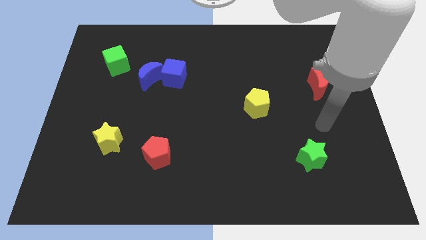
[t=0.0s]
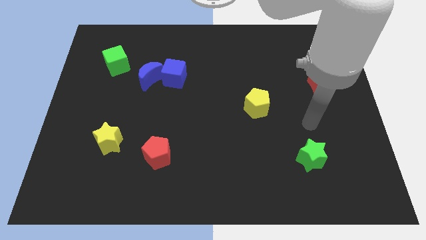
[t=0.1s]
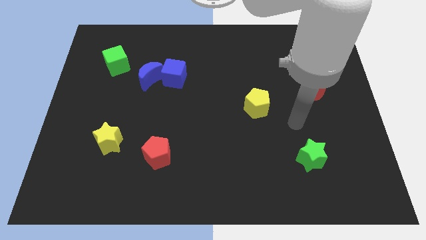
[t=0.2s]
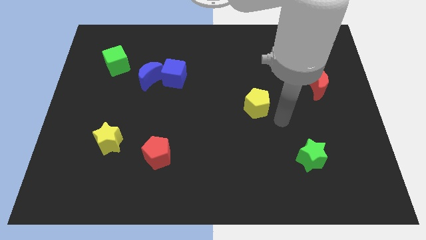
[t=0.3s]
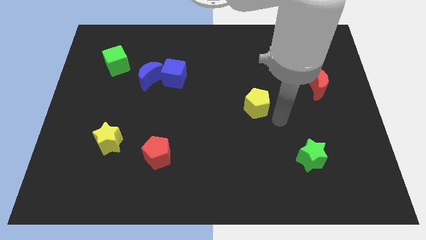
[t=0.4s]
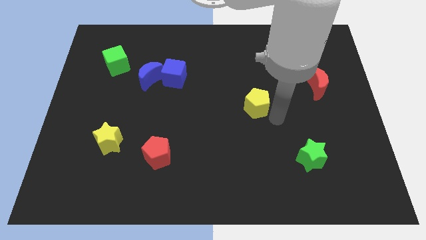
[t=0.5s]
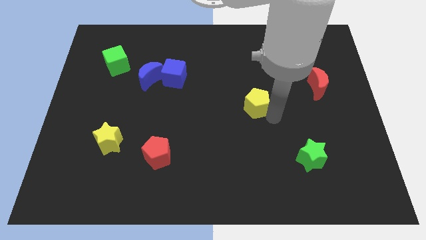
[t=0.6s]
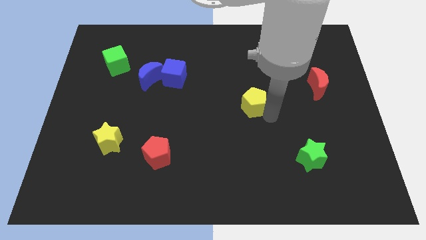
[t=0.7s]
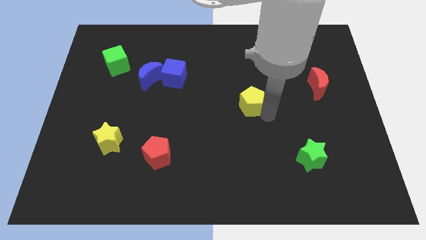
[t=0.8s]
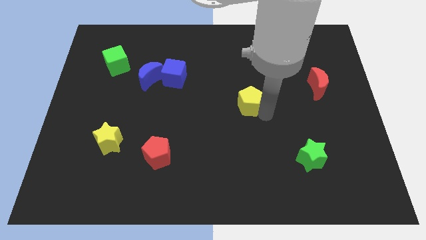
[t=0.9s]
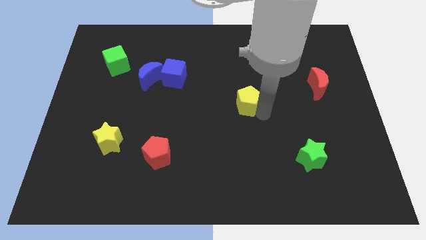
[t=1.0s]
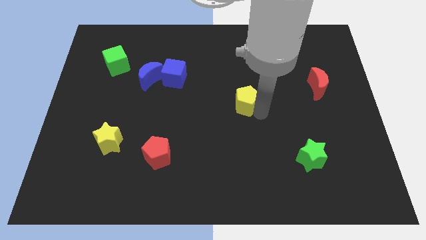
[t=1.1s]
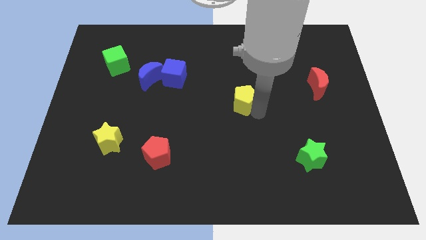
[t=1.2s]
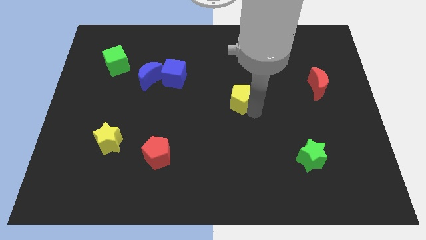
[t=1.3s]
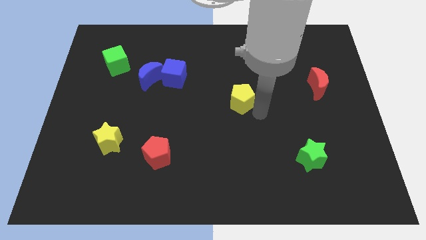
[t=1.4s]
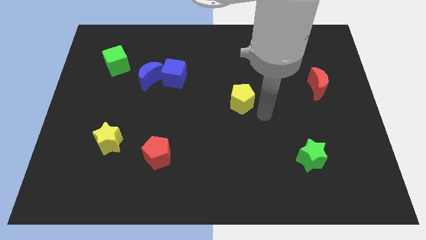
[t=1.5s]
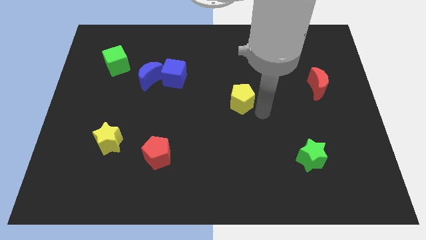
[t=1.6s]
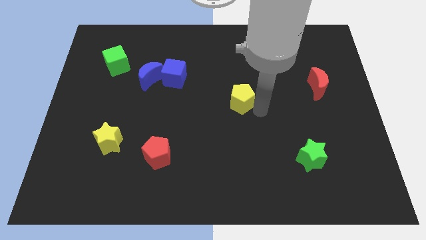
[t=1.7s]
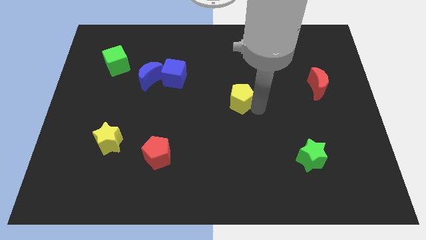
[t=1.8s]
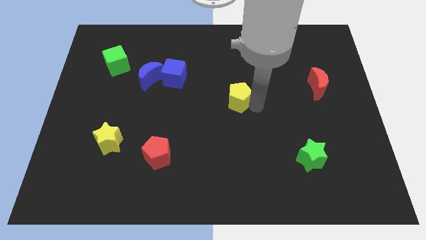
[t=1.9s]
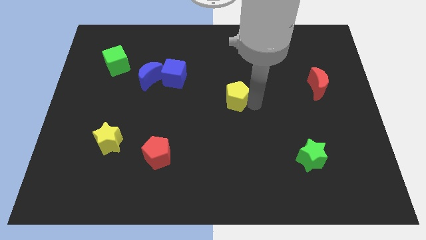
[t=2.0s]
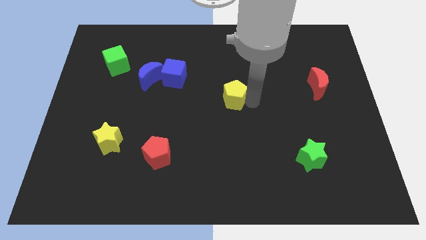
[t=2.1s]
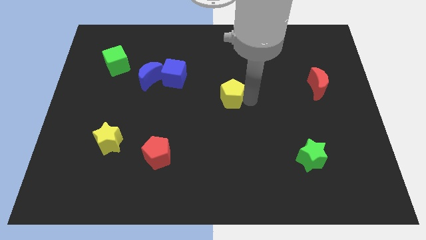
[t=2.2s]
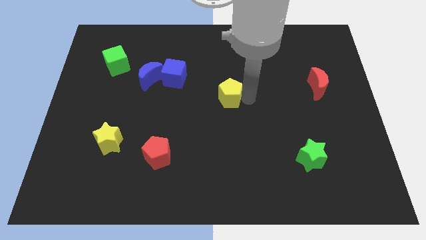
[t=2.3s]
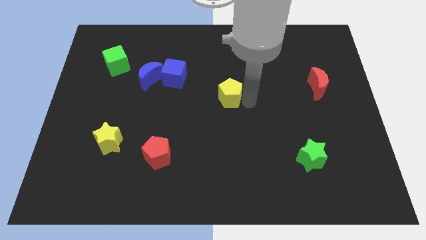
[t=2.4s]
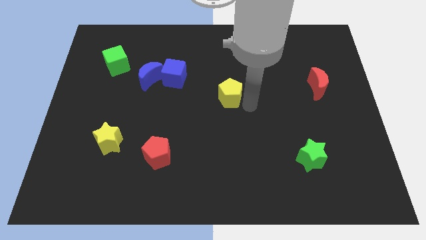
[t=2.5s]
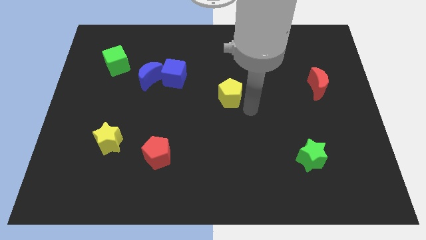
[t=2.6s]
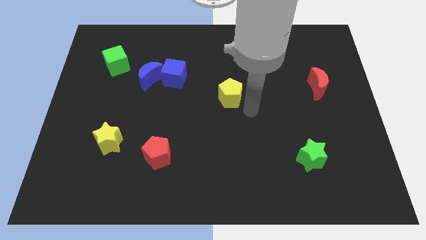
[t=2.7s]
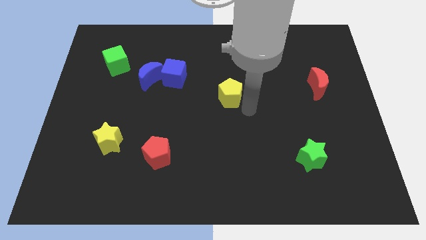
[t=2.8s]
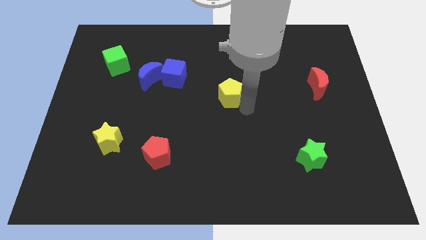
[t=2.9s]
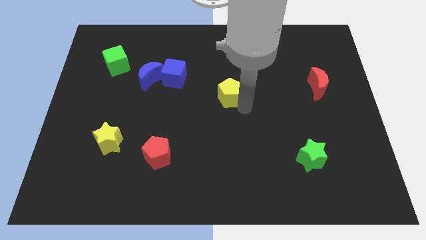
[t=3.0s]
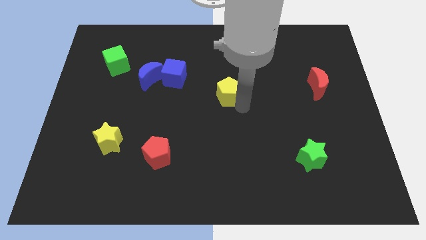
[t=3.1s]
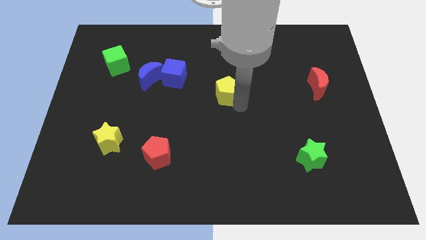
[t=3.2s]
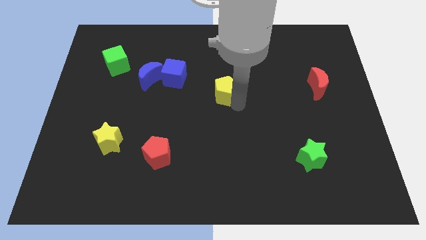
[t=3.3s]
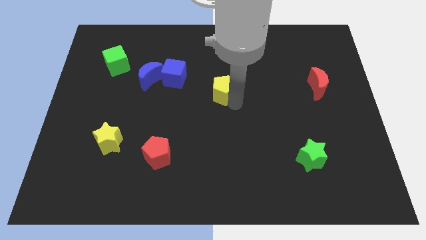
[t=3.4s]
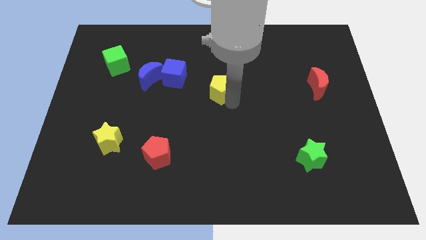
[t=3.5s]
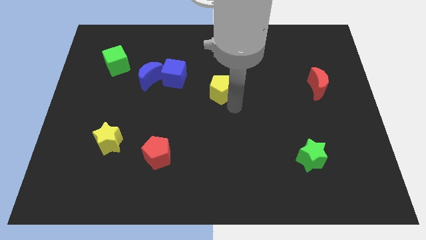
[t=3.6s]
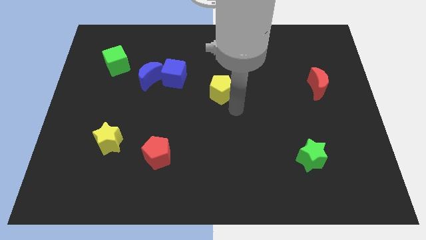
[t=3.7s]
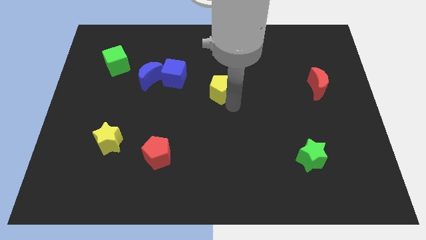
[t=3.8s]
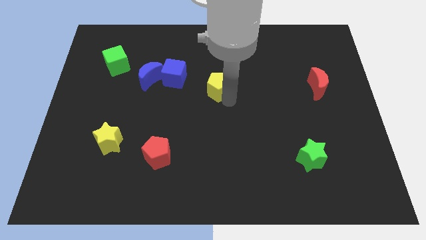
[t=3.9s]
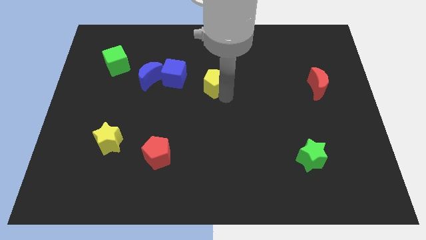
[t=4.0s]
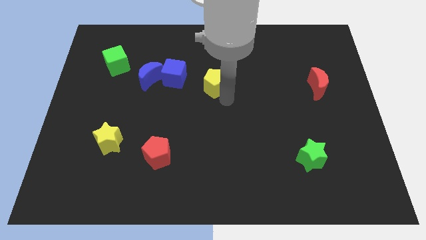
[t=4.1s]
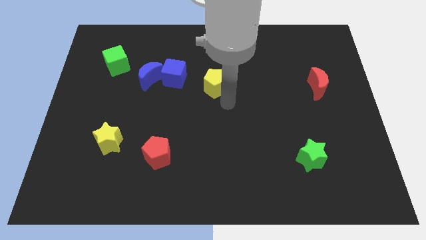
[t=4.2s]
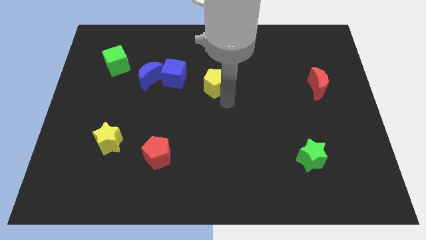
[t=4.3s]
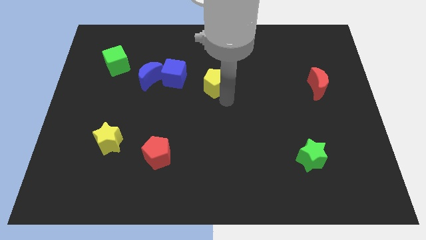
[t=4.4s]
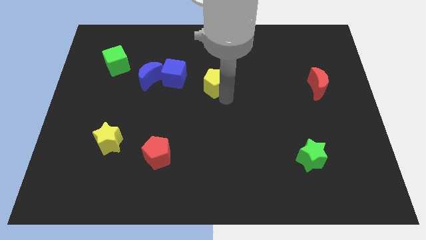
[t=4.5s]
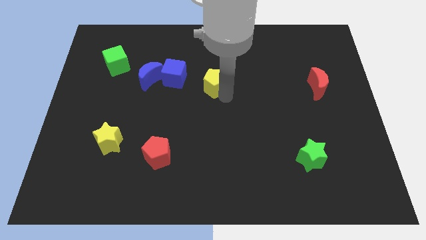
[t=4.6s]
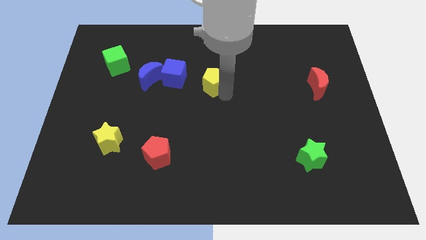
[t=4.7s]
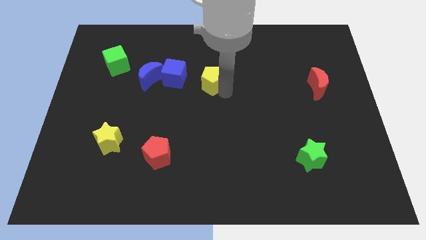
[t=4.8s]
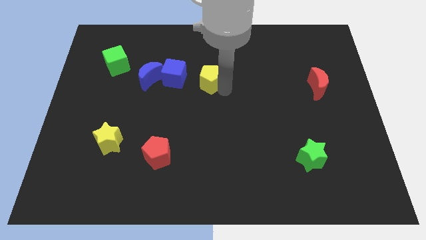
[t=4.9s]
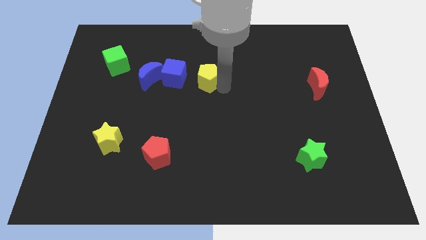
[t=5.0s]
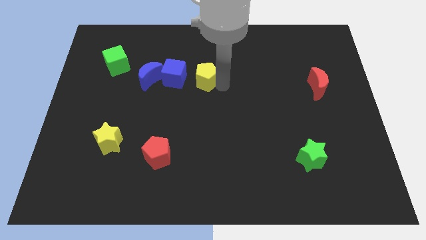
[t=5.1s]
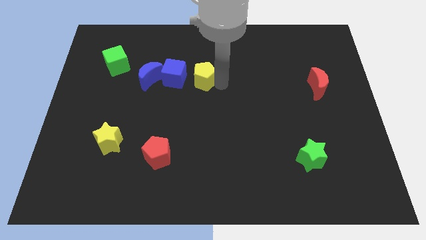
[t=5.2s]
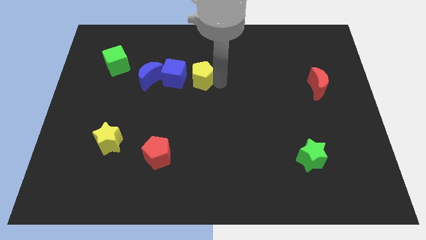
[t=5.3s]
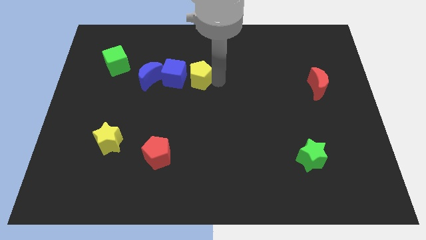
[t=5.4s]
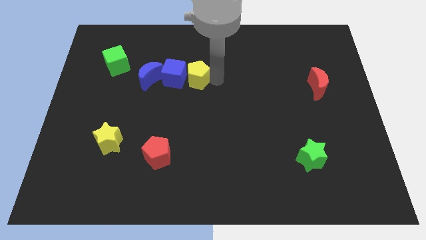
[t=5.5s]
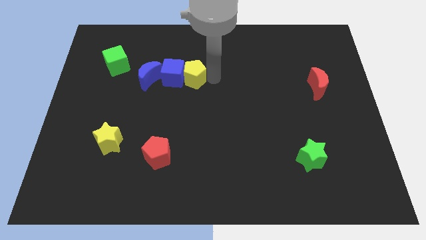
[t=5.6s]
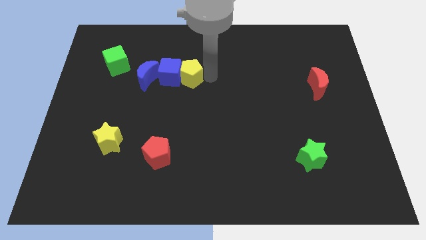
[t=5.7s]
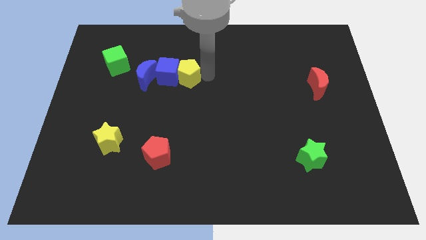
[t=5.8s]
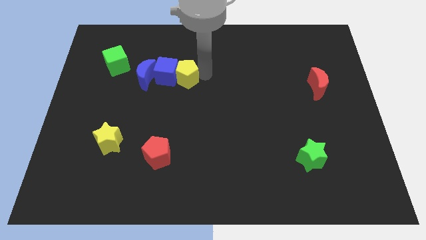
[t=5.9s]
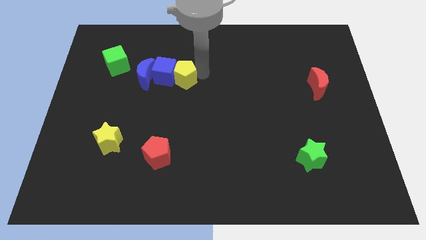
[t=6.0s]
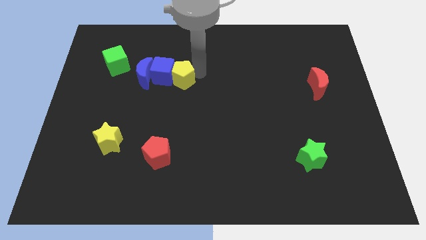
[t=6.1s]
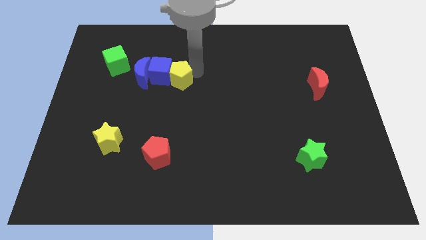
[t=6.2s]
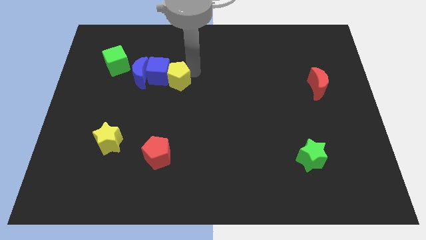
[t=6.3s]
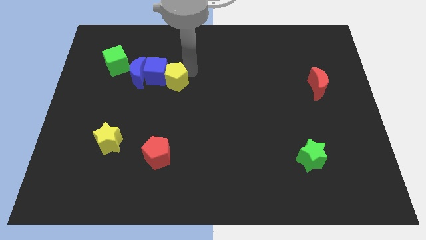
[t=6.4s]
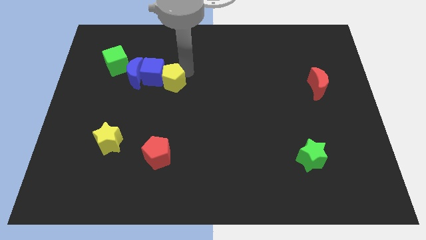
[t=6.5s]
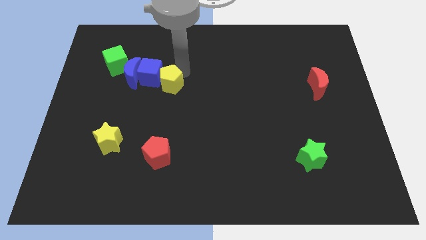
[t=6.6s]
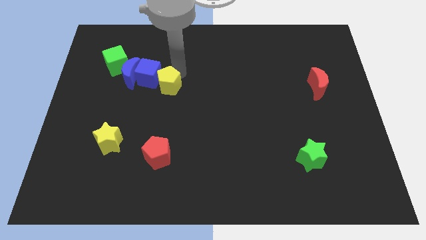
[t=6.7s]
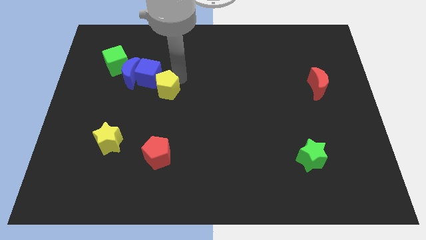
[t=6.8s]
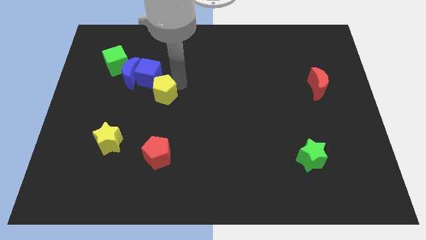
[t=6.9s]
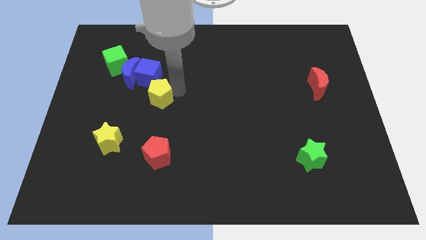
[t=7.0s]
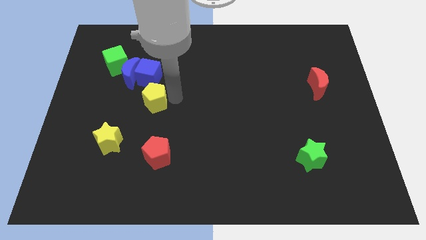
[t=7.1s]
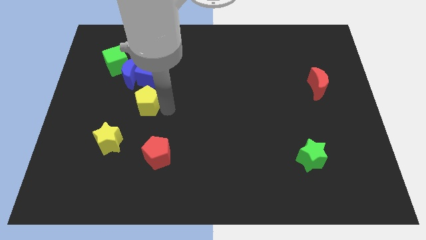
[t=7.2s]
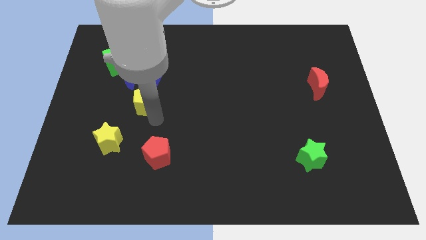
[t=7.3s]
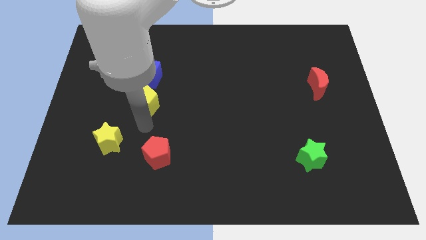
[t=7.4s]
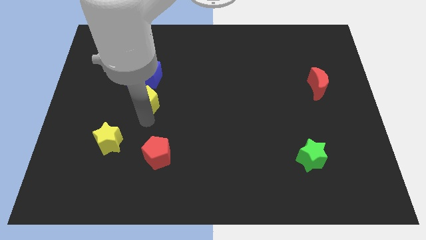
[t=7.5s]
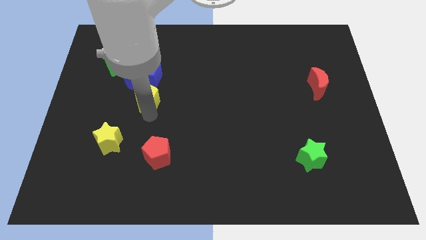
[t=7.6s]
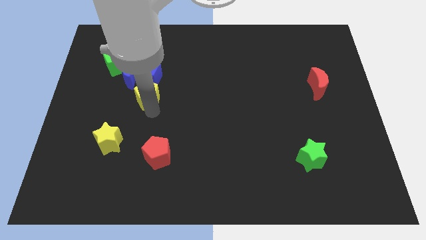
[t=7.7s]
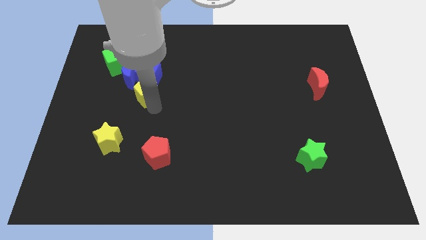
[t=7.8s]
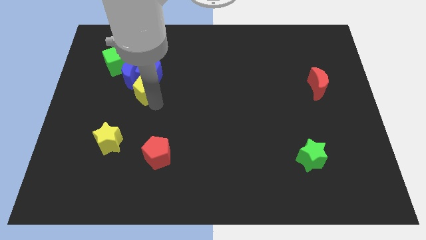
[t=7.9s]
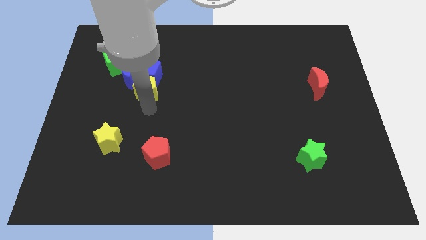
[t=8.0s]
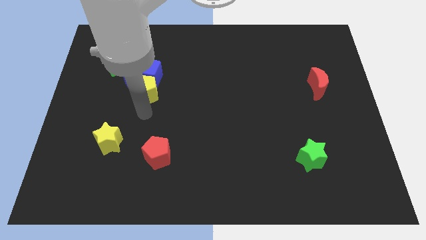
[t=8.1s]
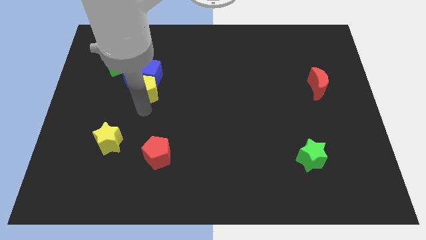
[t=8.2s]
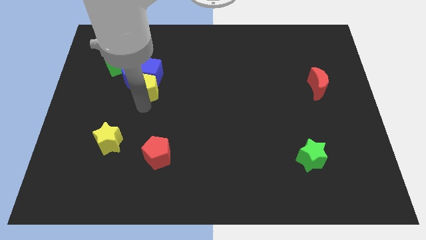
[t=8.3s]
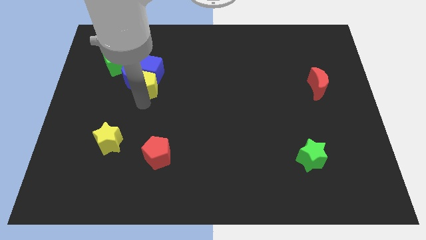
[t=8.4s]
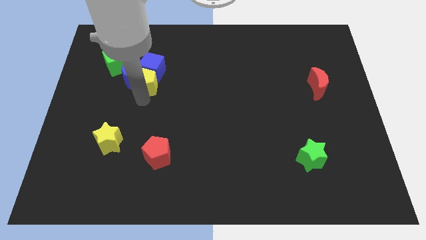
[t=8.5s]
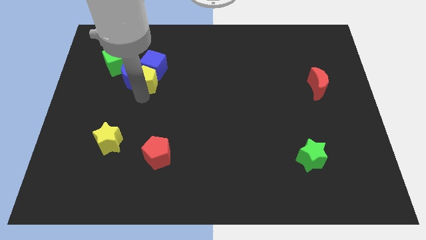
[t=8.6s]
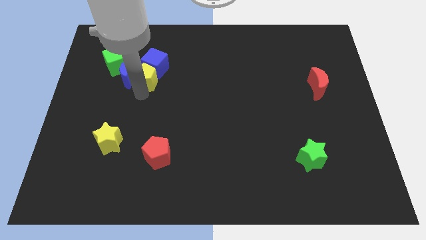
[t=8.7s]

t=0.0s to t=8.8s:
put the yellow pentagon to the top right side of the blue moon

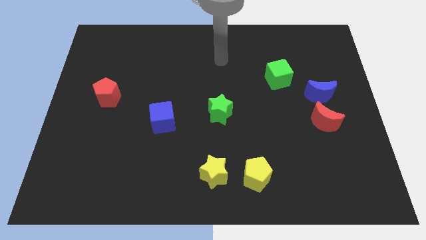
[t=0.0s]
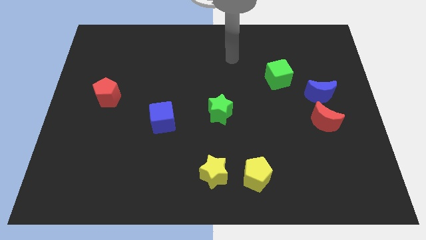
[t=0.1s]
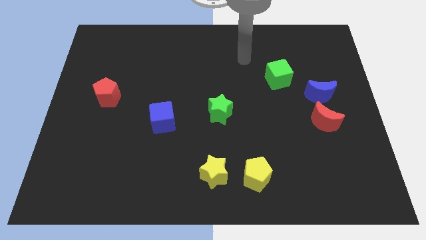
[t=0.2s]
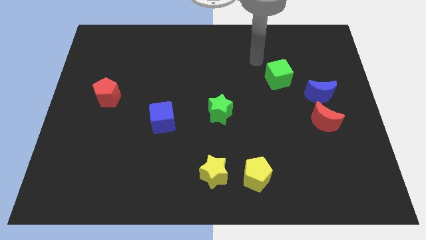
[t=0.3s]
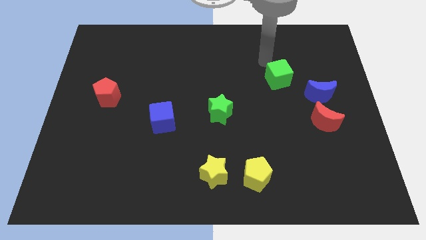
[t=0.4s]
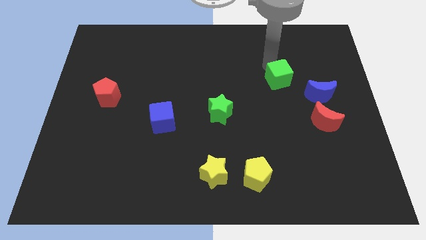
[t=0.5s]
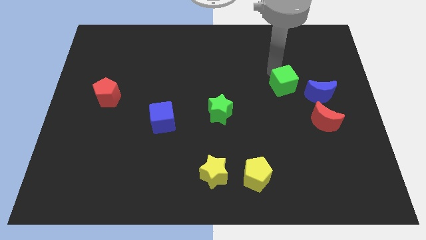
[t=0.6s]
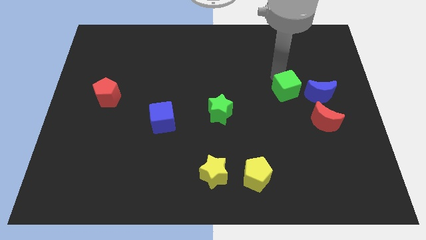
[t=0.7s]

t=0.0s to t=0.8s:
move the green cube to the top left side of the red moon
